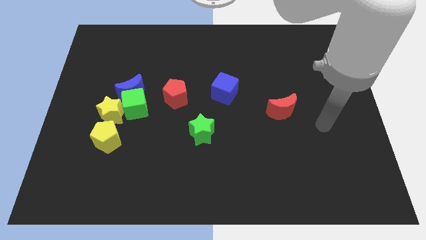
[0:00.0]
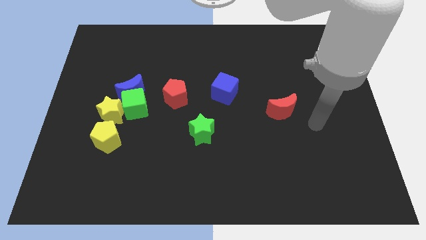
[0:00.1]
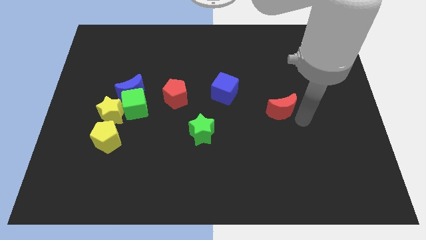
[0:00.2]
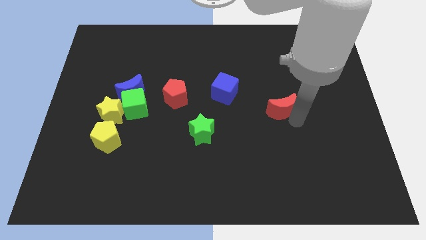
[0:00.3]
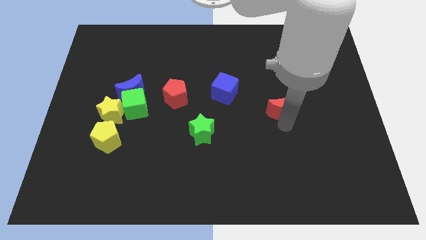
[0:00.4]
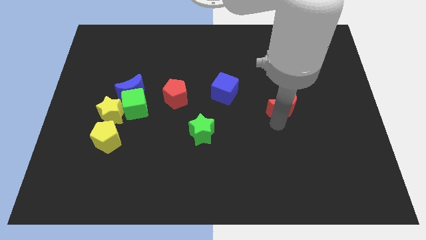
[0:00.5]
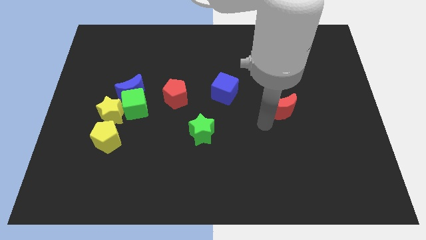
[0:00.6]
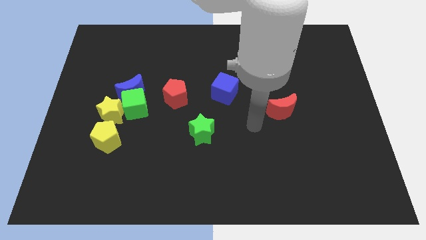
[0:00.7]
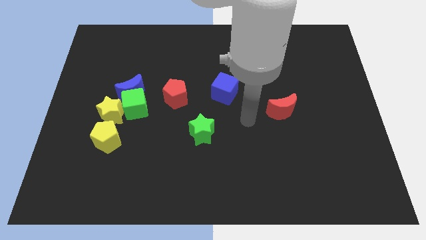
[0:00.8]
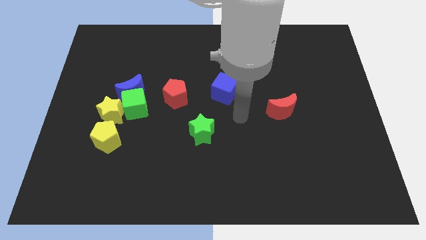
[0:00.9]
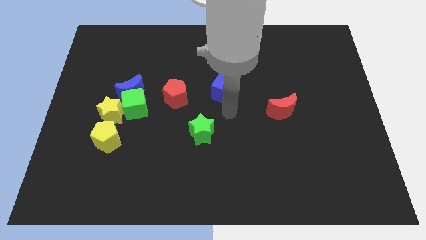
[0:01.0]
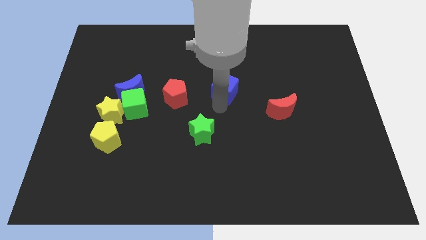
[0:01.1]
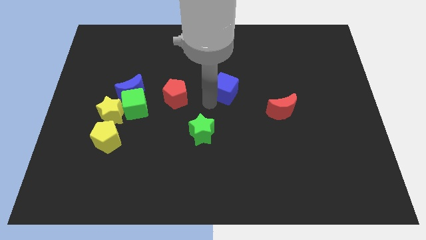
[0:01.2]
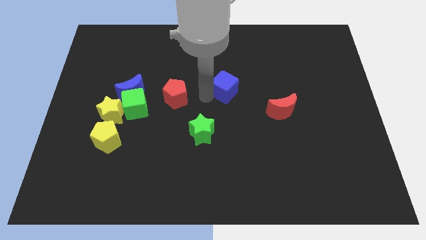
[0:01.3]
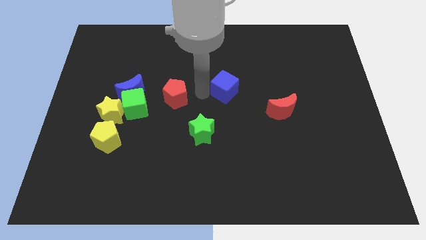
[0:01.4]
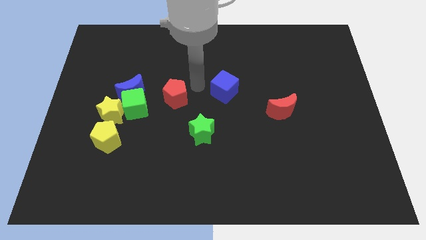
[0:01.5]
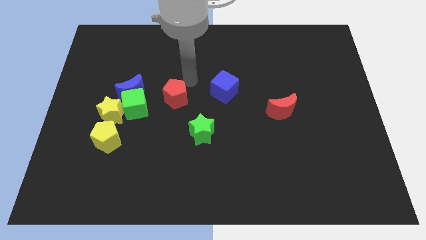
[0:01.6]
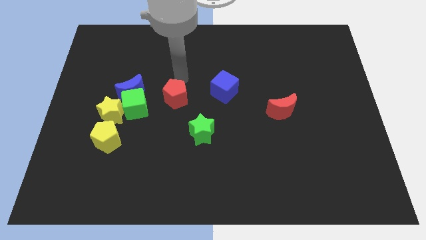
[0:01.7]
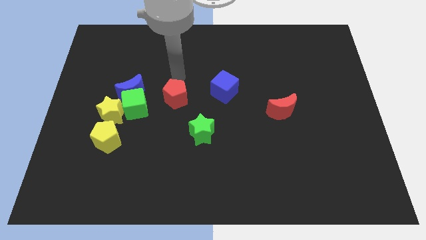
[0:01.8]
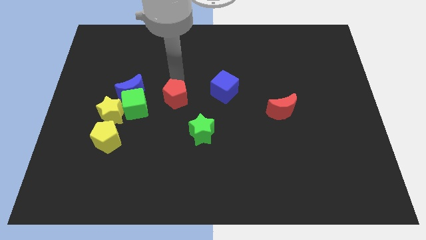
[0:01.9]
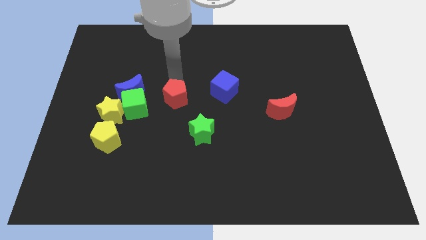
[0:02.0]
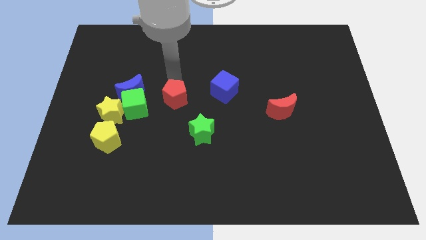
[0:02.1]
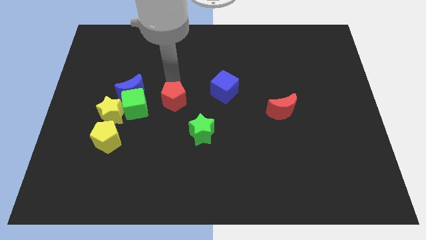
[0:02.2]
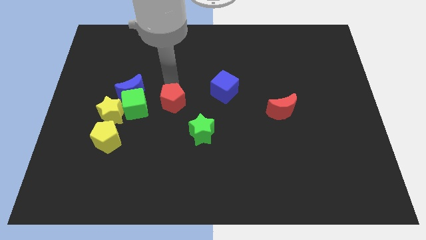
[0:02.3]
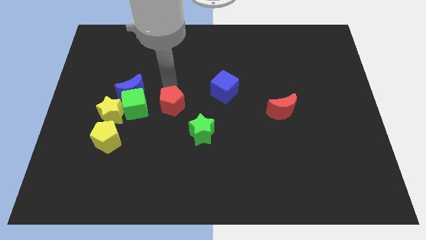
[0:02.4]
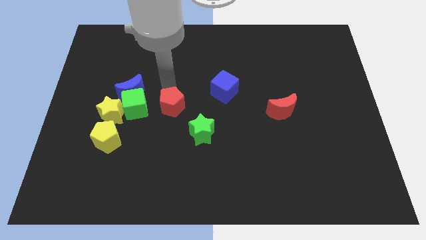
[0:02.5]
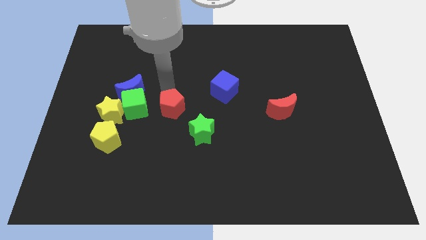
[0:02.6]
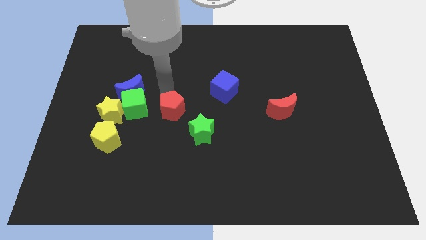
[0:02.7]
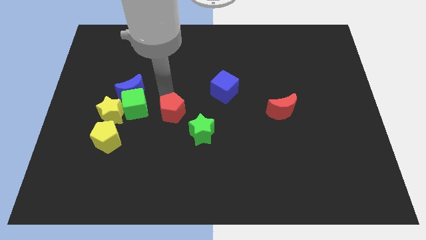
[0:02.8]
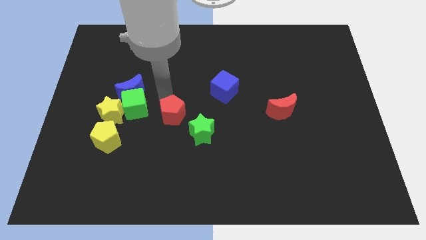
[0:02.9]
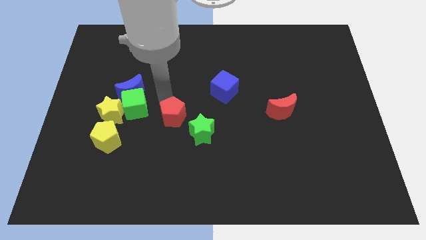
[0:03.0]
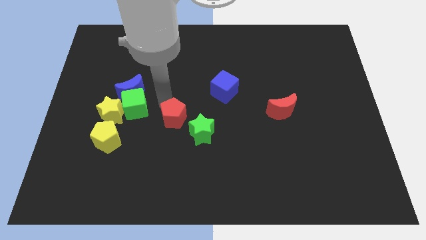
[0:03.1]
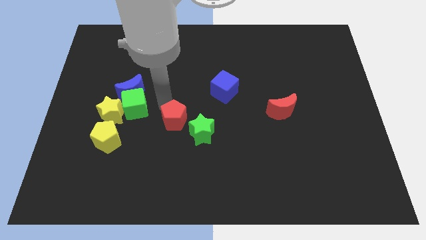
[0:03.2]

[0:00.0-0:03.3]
slightly move the red pentagon downwards

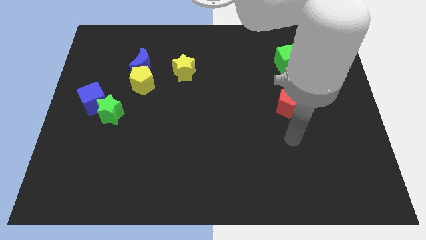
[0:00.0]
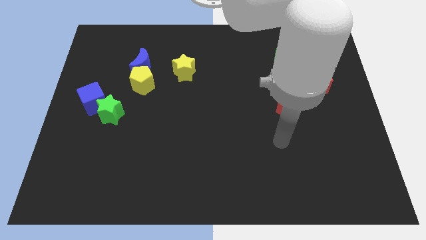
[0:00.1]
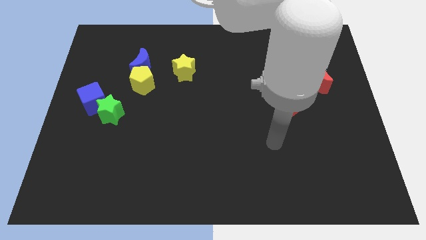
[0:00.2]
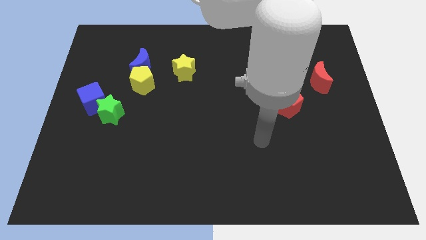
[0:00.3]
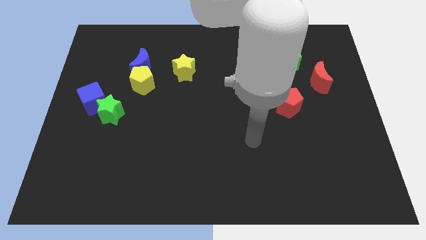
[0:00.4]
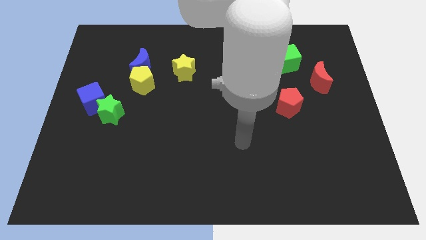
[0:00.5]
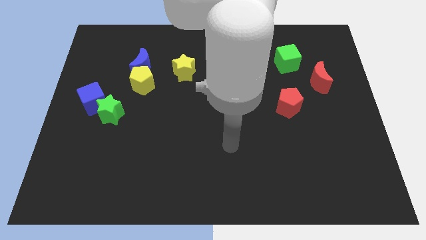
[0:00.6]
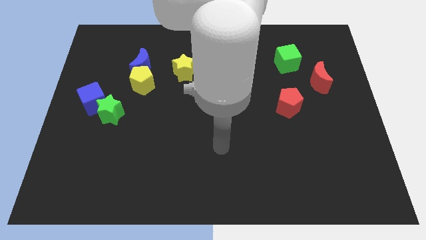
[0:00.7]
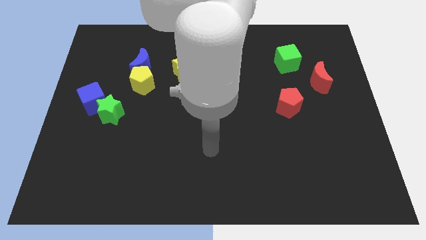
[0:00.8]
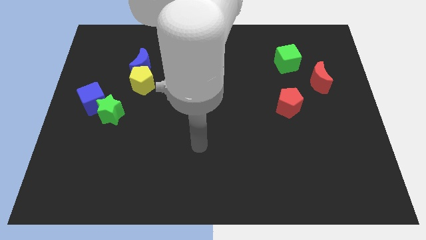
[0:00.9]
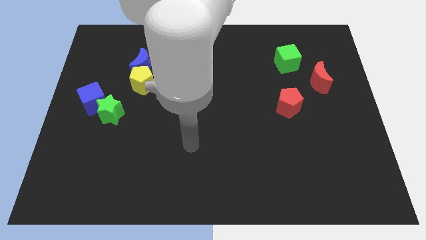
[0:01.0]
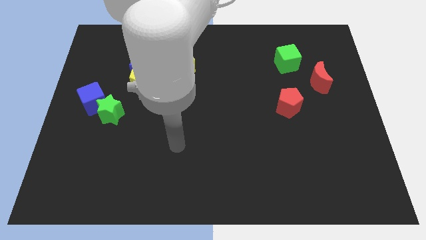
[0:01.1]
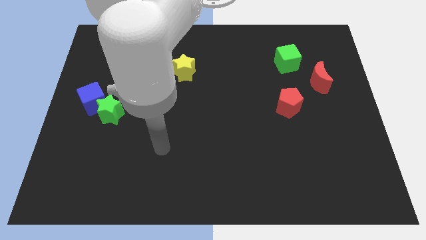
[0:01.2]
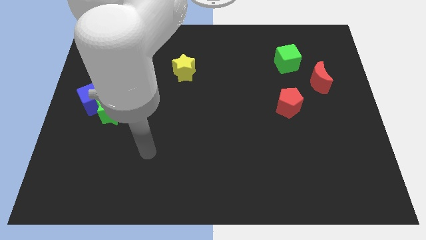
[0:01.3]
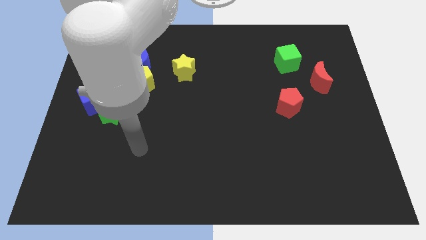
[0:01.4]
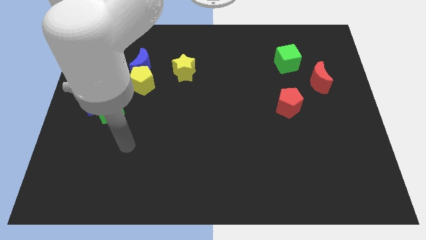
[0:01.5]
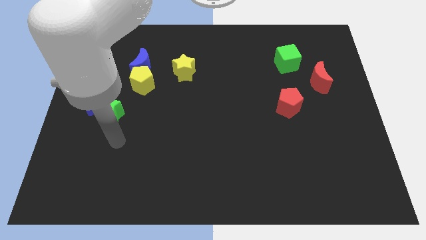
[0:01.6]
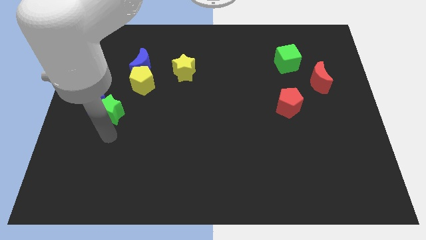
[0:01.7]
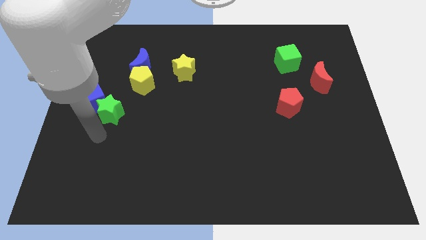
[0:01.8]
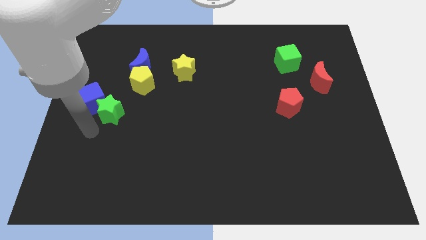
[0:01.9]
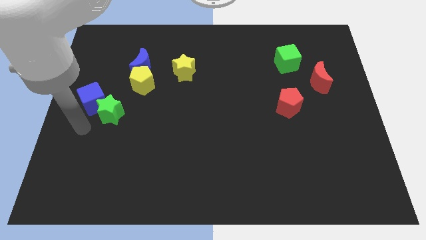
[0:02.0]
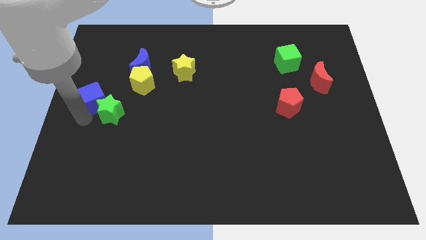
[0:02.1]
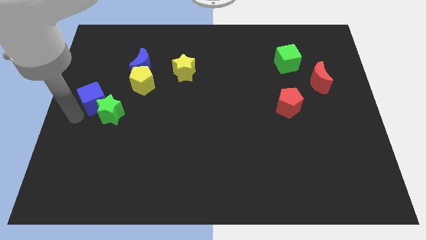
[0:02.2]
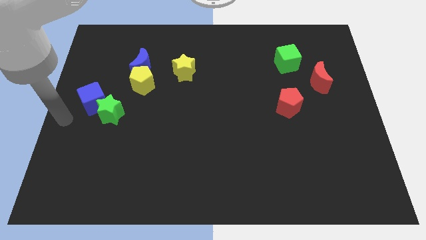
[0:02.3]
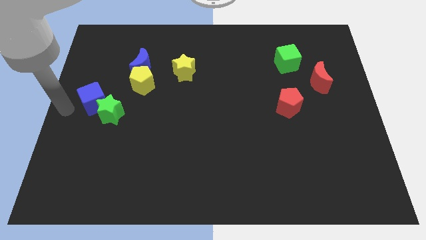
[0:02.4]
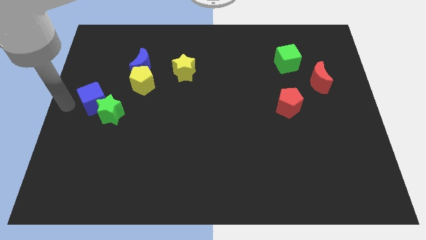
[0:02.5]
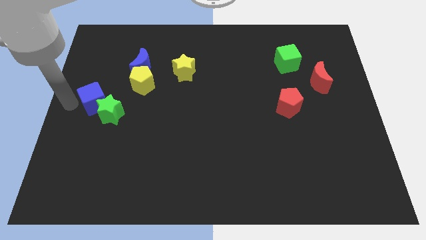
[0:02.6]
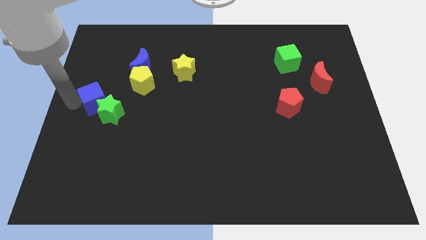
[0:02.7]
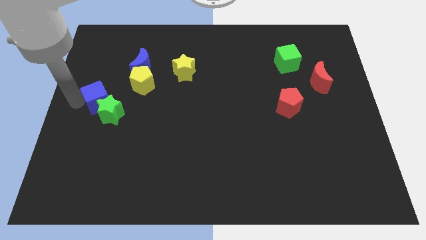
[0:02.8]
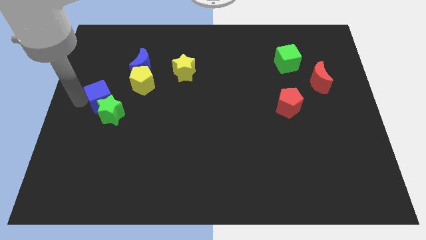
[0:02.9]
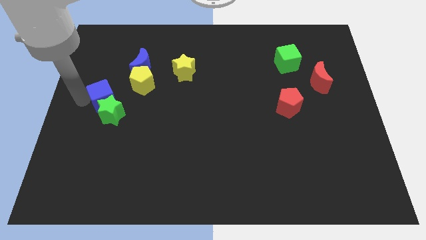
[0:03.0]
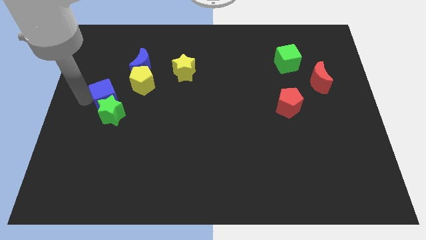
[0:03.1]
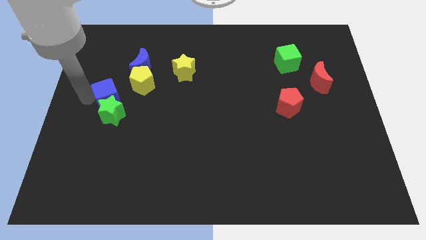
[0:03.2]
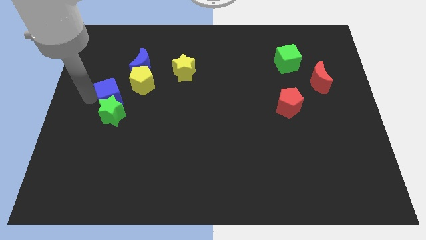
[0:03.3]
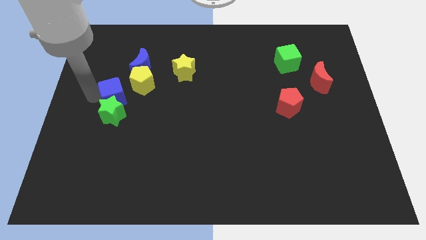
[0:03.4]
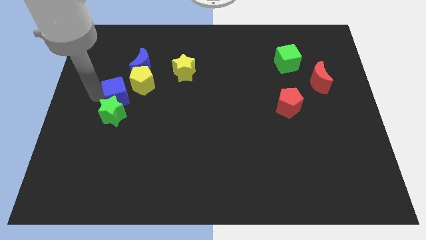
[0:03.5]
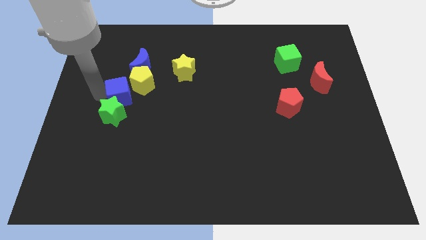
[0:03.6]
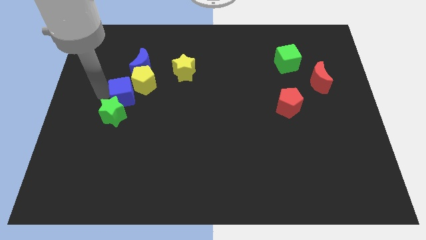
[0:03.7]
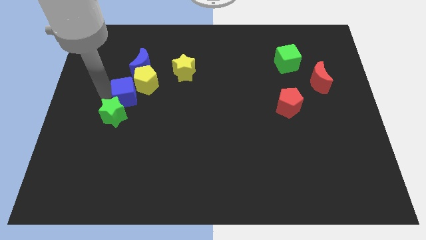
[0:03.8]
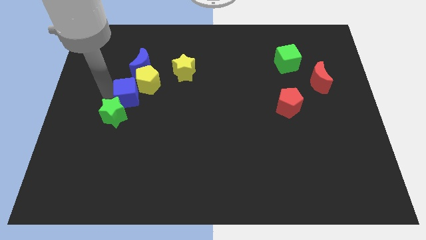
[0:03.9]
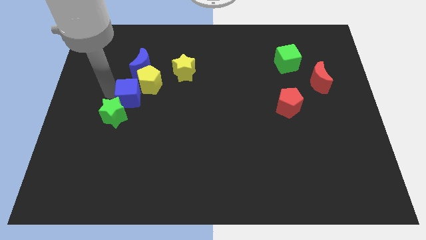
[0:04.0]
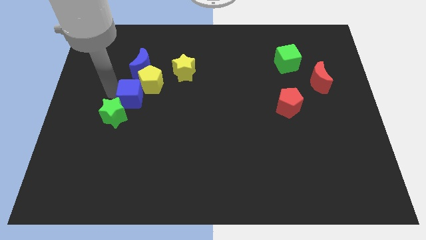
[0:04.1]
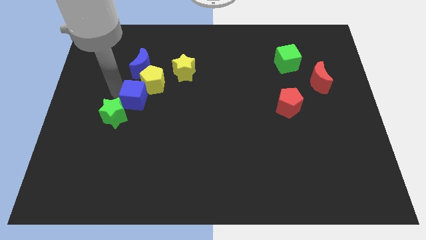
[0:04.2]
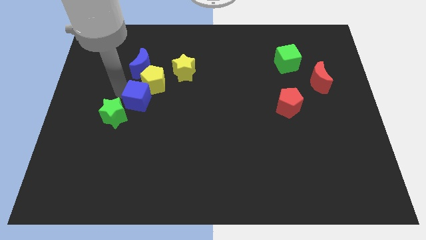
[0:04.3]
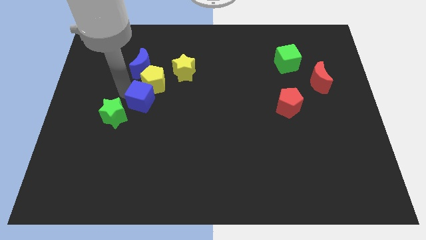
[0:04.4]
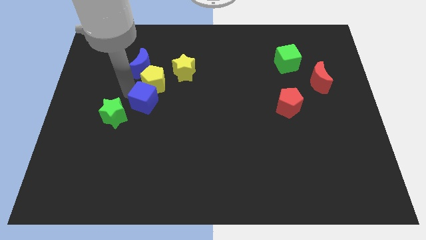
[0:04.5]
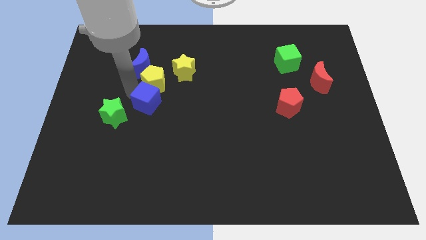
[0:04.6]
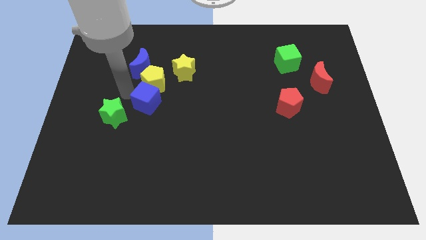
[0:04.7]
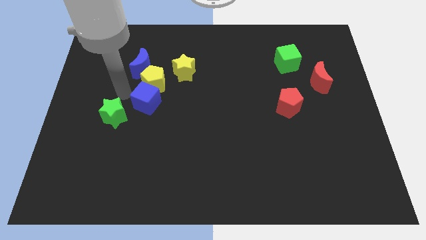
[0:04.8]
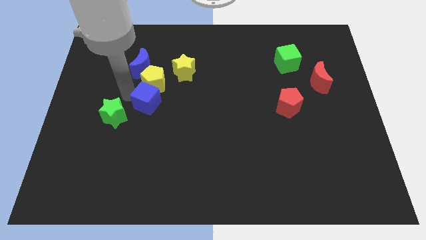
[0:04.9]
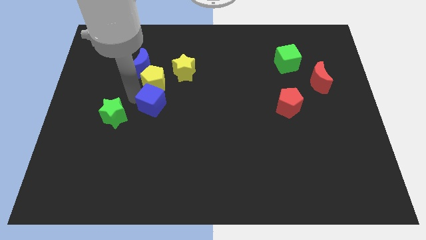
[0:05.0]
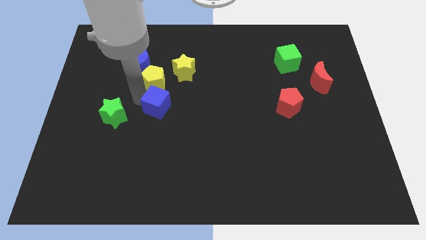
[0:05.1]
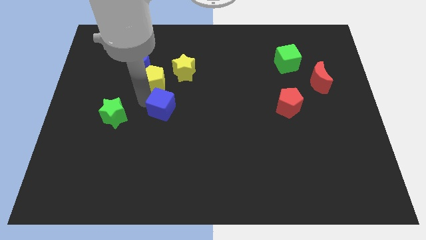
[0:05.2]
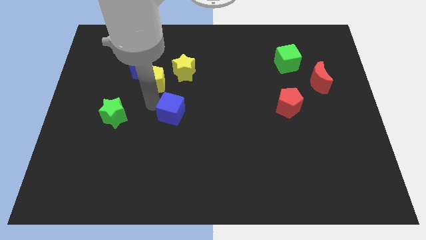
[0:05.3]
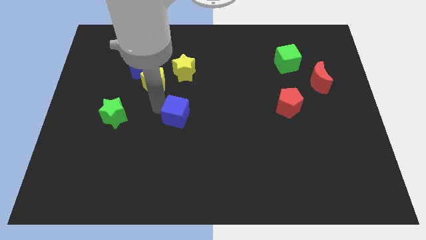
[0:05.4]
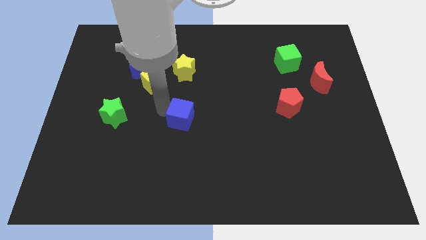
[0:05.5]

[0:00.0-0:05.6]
slide the blue cube right
